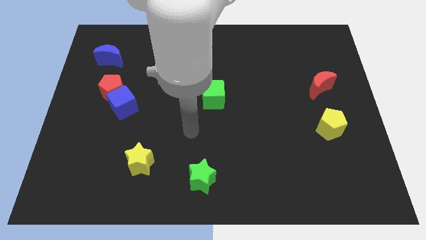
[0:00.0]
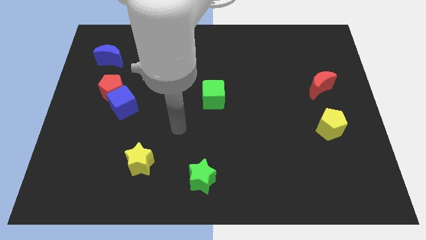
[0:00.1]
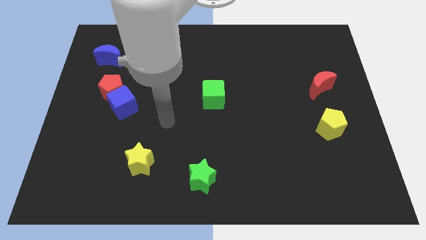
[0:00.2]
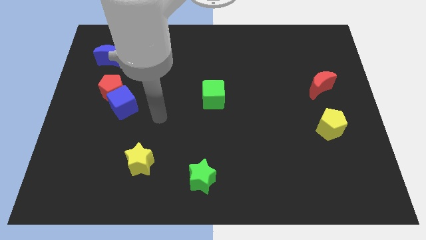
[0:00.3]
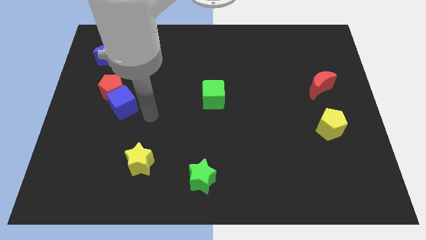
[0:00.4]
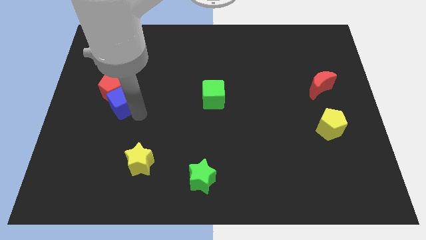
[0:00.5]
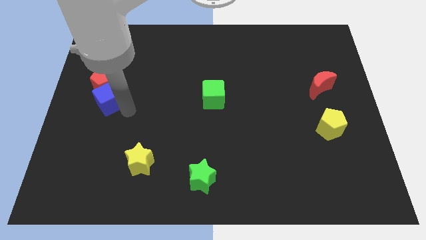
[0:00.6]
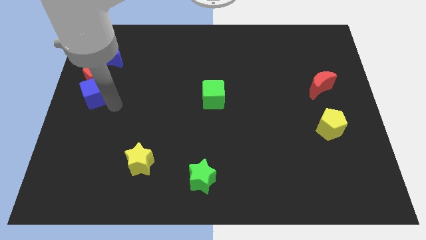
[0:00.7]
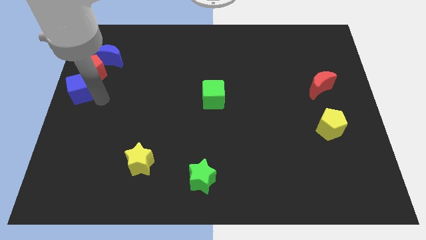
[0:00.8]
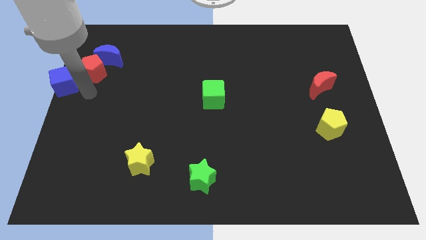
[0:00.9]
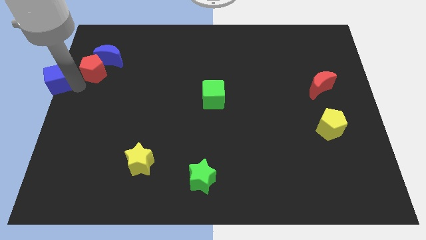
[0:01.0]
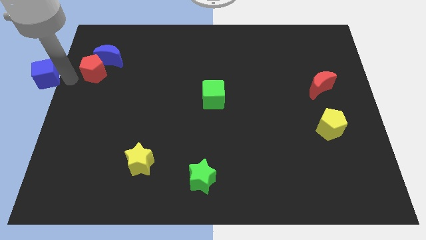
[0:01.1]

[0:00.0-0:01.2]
pull the red pentagon apart from the blue cube

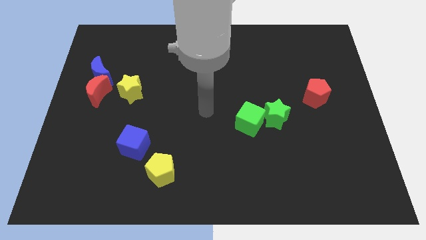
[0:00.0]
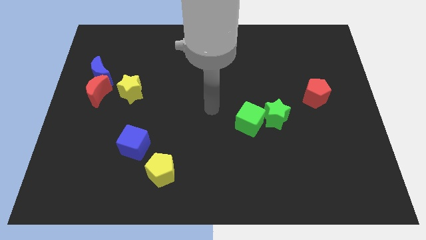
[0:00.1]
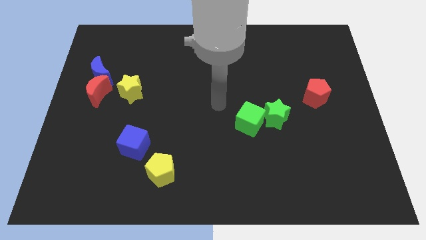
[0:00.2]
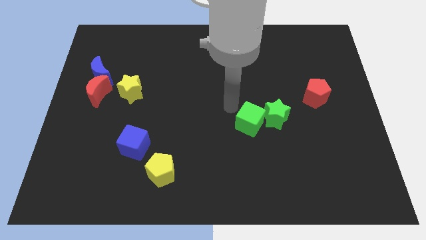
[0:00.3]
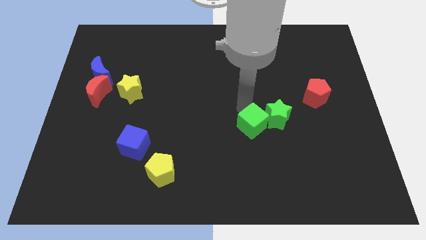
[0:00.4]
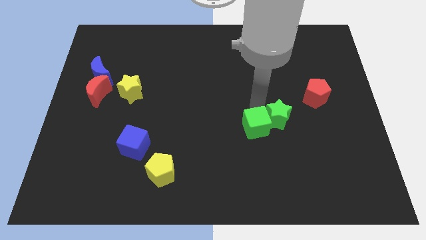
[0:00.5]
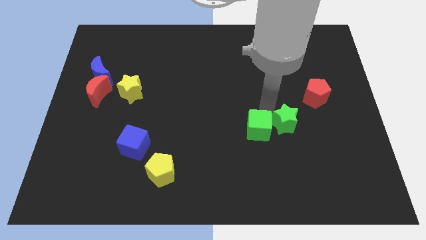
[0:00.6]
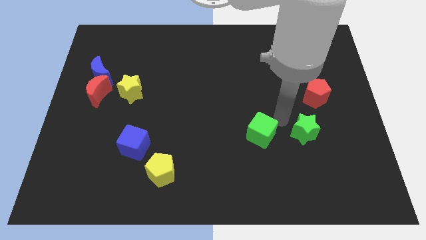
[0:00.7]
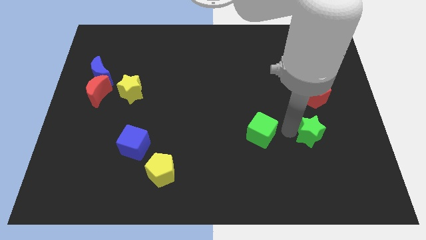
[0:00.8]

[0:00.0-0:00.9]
move the green cube away from the green star

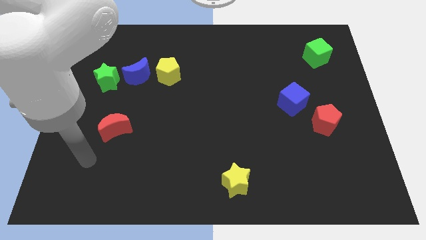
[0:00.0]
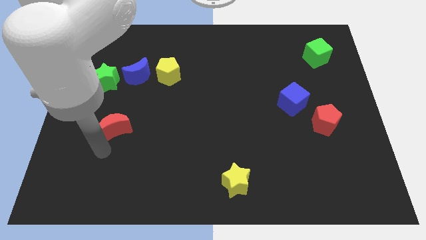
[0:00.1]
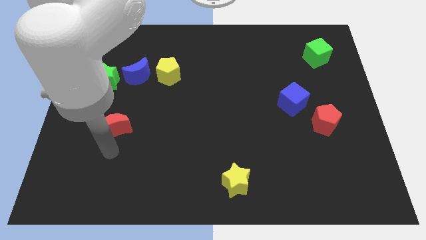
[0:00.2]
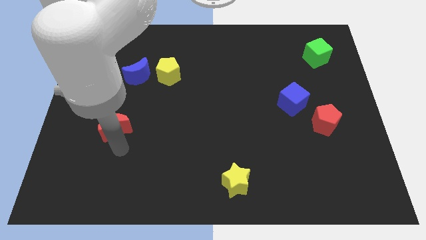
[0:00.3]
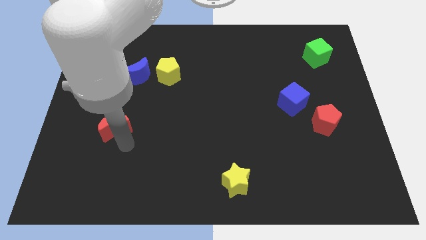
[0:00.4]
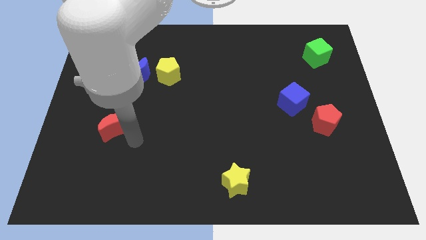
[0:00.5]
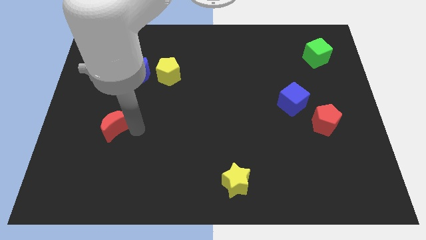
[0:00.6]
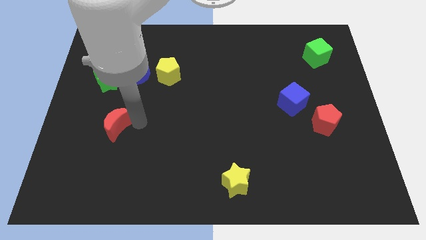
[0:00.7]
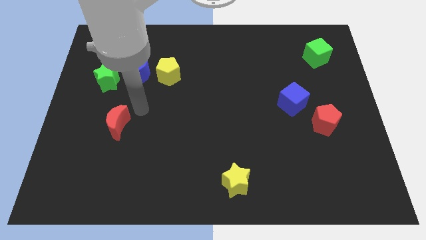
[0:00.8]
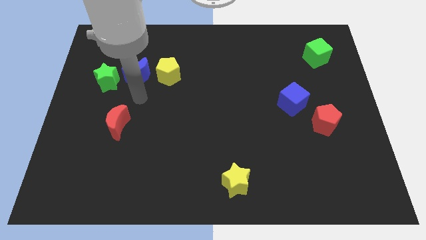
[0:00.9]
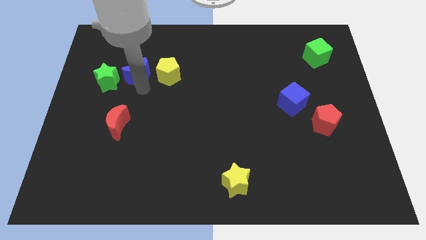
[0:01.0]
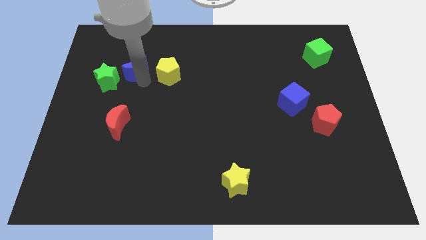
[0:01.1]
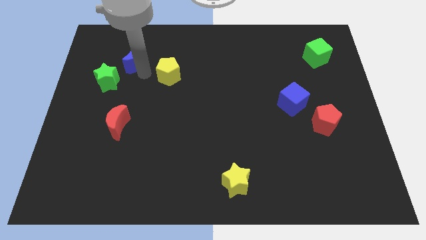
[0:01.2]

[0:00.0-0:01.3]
separate the yellow pentagon from the blue moon

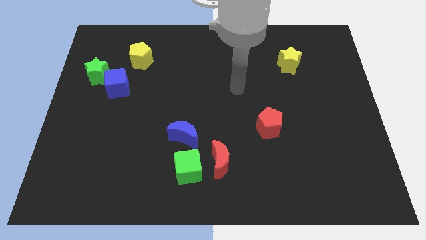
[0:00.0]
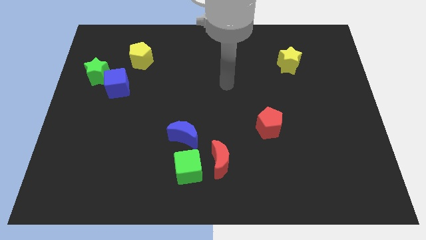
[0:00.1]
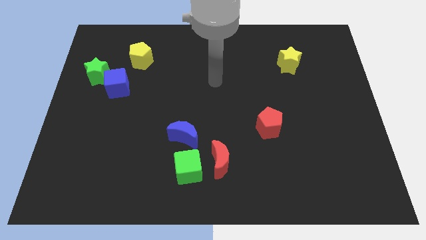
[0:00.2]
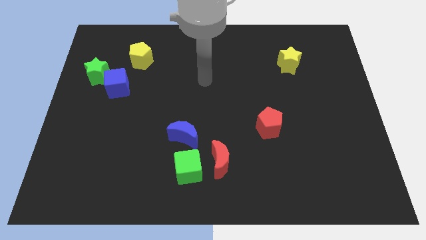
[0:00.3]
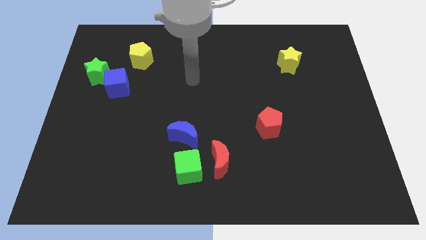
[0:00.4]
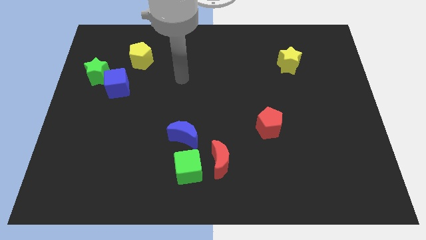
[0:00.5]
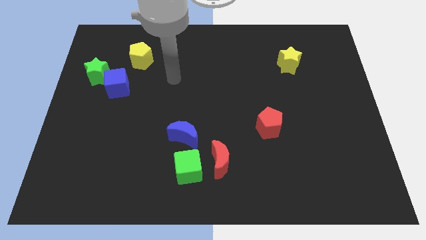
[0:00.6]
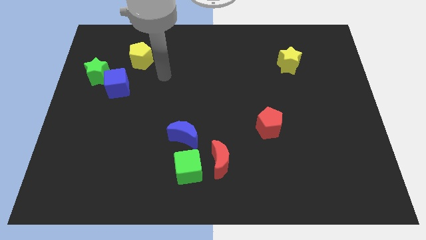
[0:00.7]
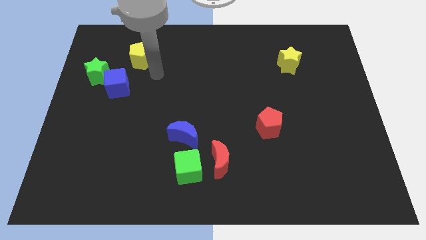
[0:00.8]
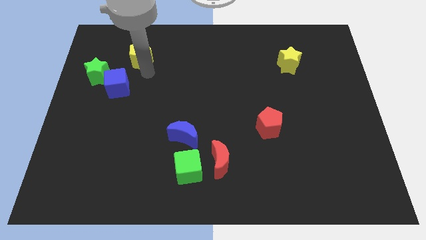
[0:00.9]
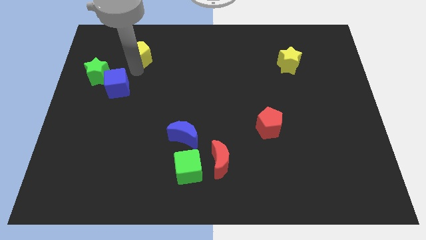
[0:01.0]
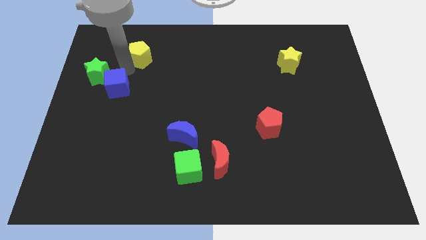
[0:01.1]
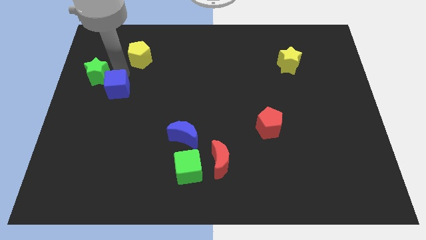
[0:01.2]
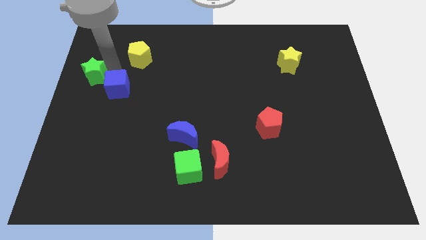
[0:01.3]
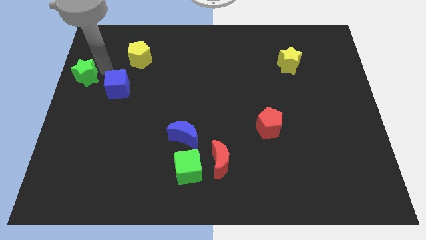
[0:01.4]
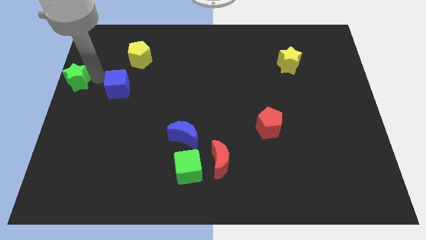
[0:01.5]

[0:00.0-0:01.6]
separate the blue cube from the green star

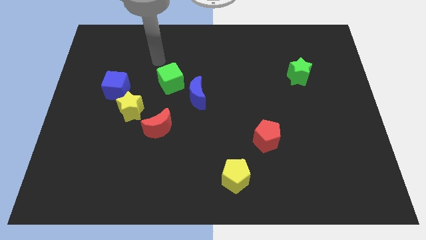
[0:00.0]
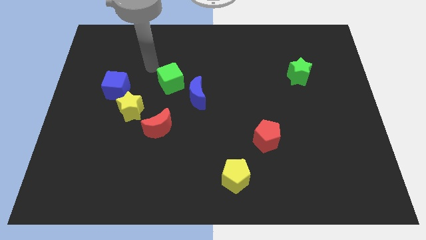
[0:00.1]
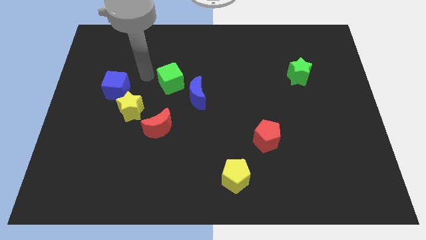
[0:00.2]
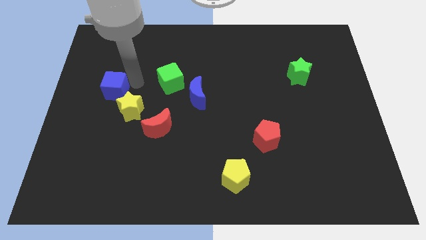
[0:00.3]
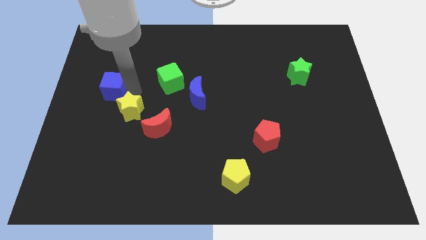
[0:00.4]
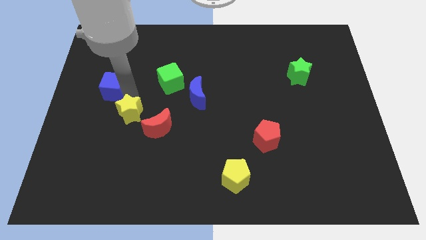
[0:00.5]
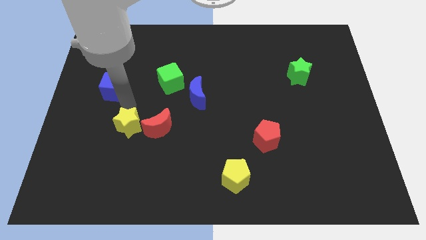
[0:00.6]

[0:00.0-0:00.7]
move the blue cube away from the yellow star

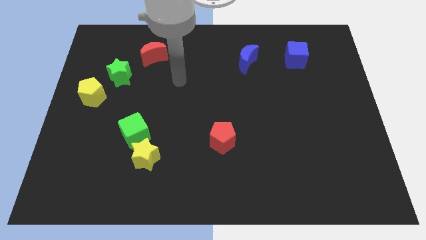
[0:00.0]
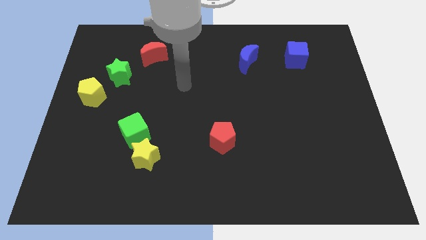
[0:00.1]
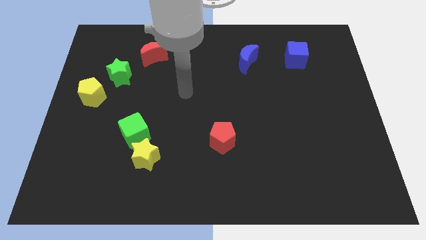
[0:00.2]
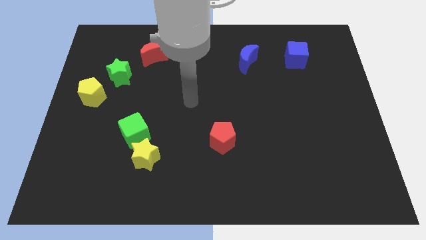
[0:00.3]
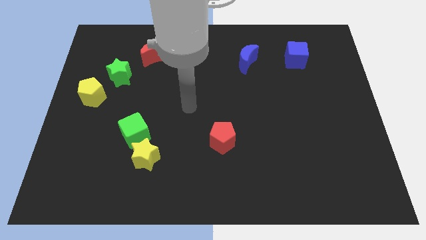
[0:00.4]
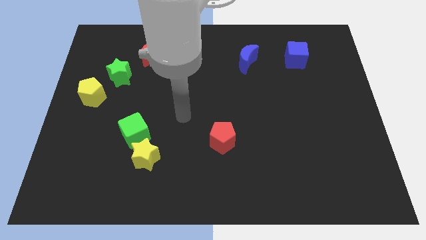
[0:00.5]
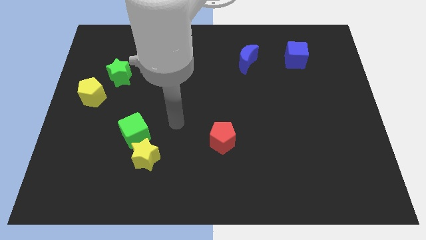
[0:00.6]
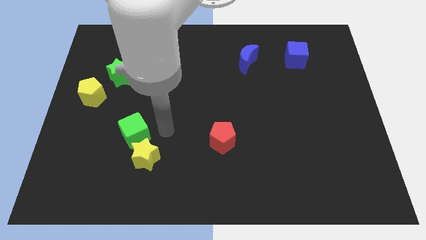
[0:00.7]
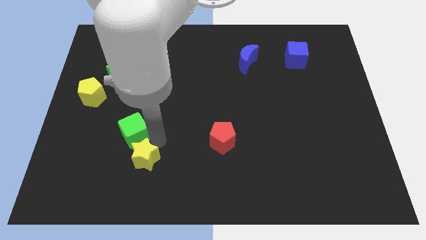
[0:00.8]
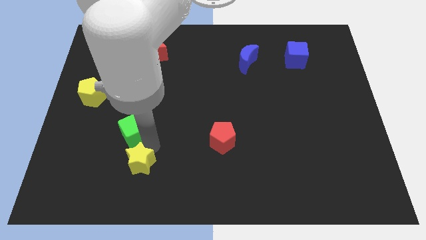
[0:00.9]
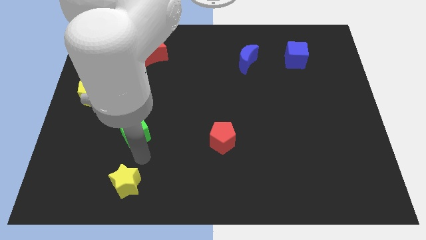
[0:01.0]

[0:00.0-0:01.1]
separate the green cube from the yellow star

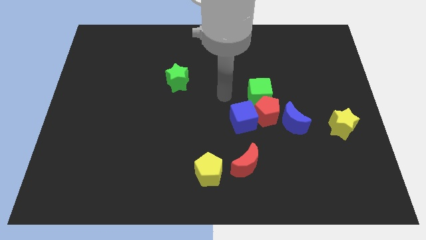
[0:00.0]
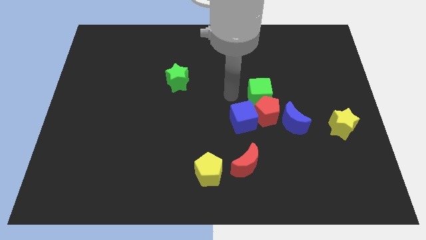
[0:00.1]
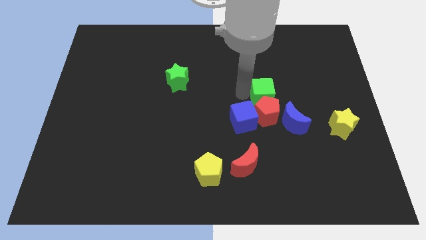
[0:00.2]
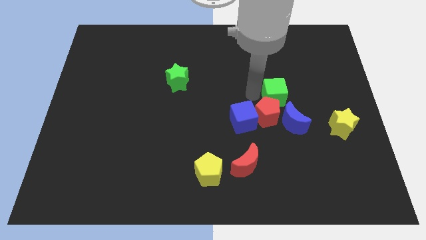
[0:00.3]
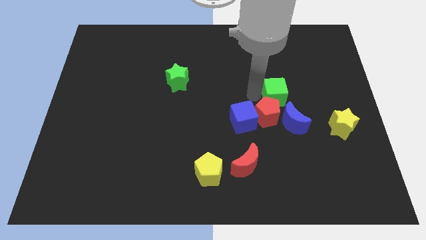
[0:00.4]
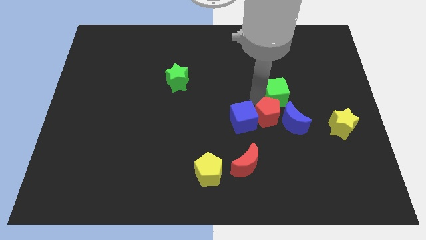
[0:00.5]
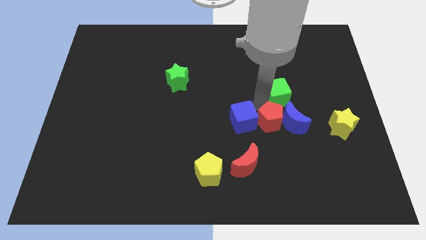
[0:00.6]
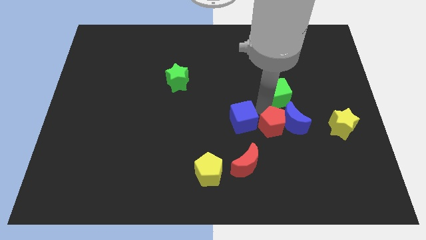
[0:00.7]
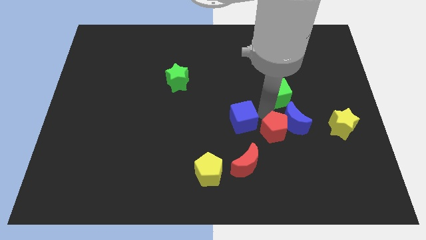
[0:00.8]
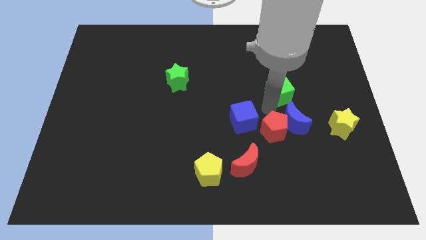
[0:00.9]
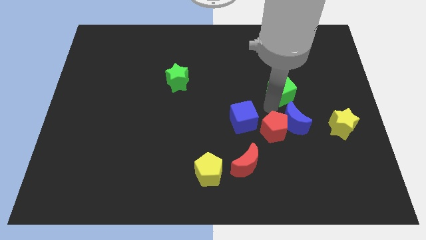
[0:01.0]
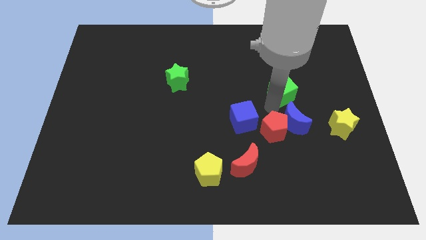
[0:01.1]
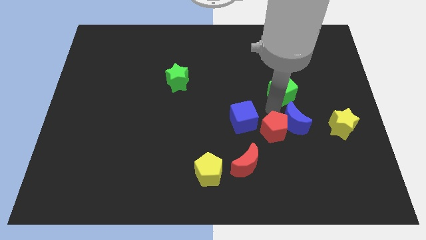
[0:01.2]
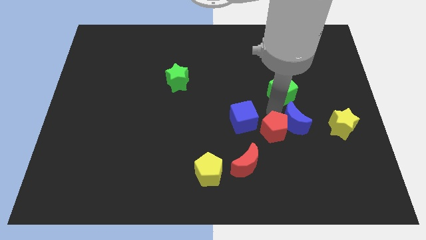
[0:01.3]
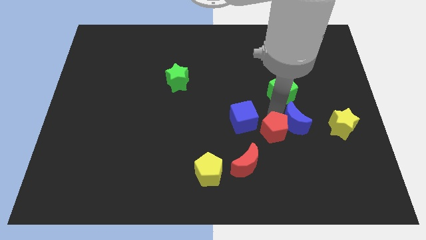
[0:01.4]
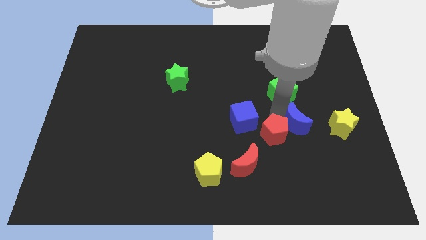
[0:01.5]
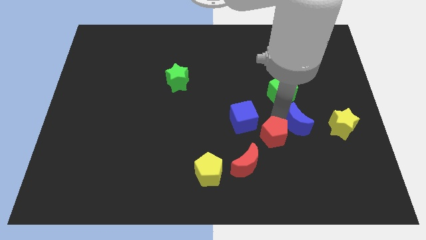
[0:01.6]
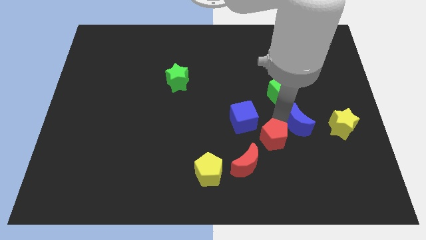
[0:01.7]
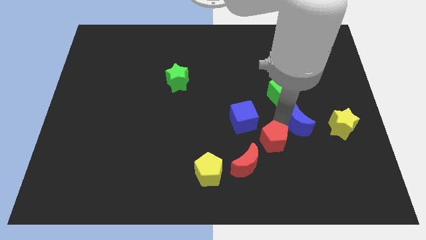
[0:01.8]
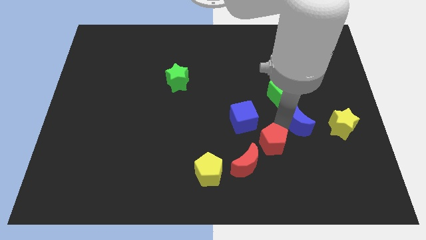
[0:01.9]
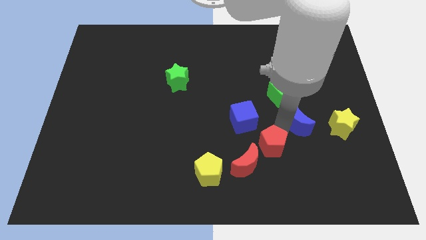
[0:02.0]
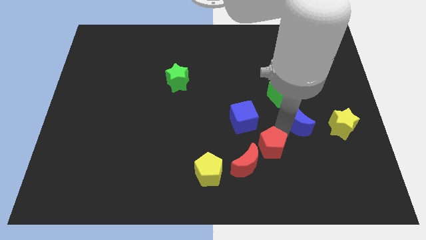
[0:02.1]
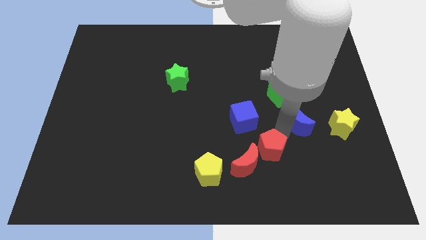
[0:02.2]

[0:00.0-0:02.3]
move the red pentagon away from the group of blocks

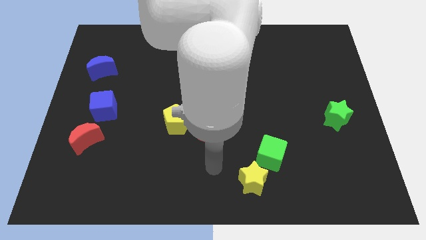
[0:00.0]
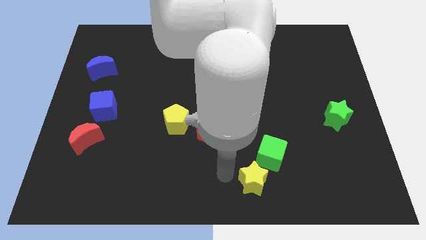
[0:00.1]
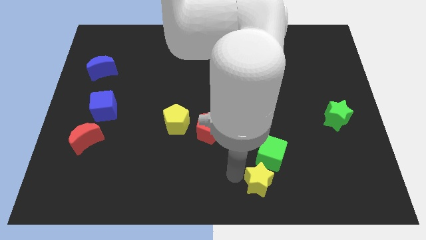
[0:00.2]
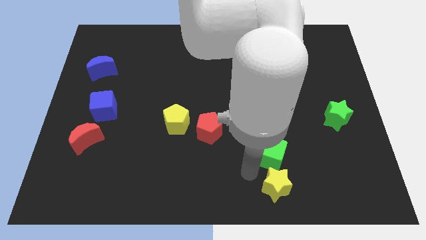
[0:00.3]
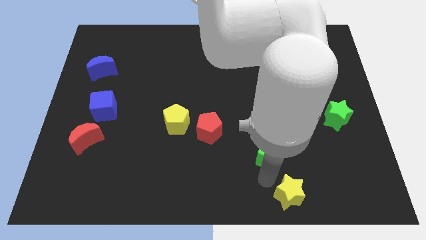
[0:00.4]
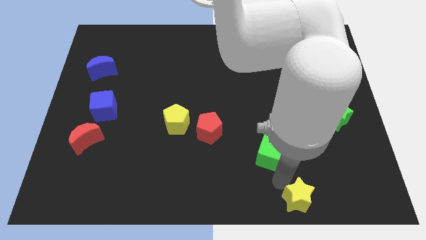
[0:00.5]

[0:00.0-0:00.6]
pull the green cube apart from the yellow star
